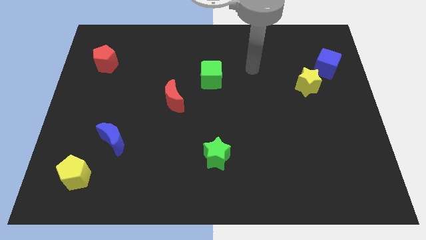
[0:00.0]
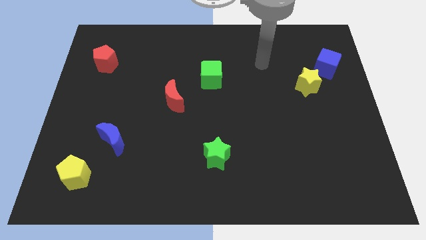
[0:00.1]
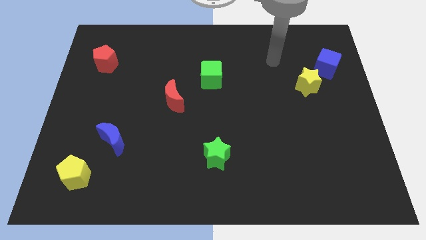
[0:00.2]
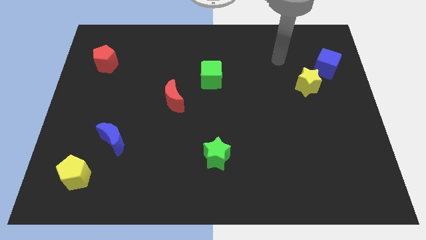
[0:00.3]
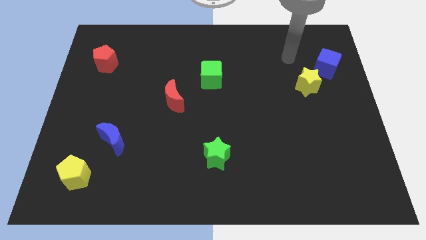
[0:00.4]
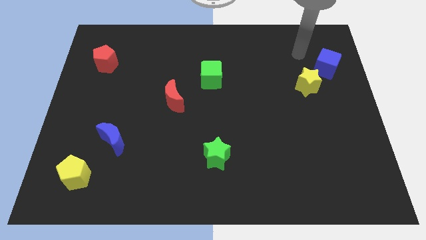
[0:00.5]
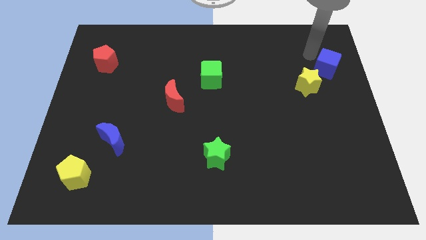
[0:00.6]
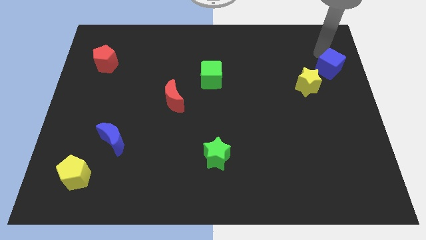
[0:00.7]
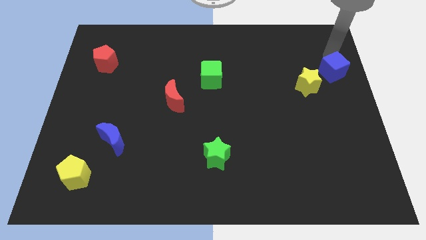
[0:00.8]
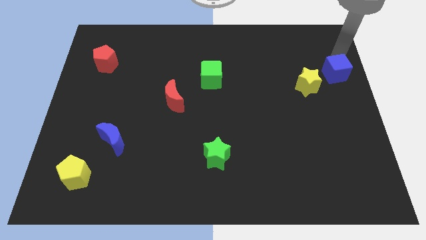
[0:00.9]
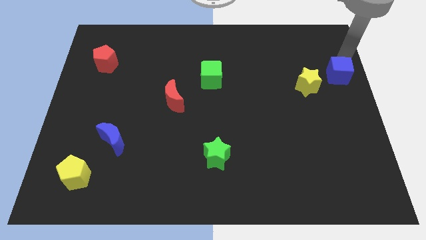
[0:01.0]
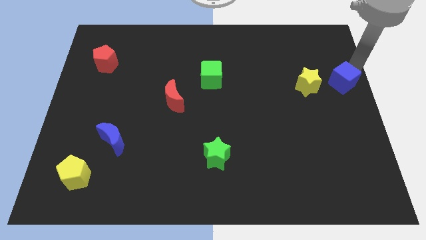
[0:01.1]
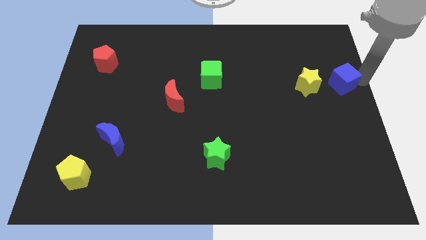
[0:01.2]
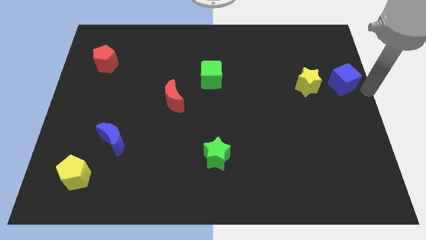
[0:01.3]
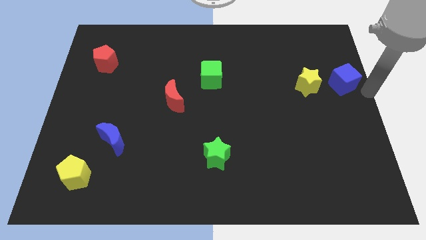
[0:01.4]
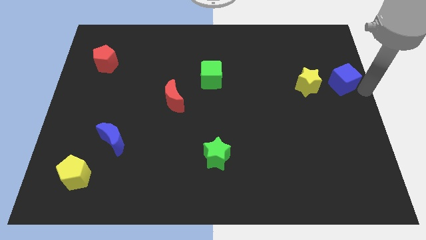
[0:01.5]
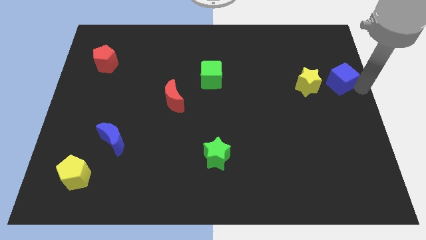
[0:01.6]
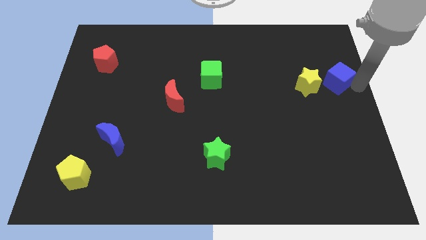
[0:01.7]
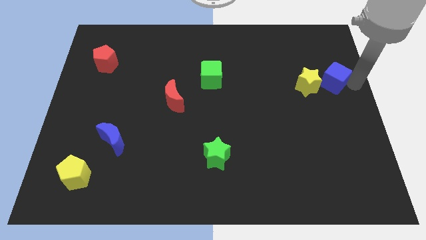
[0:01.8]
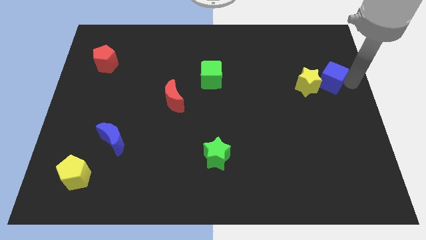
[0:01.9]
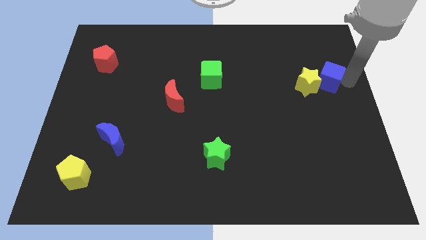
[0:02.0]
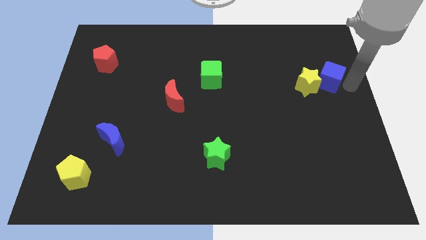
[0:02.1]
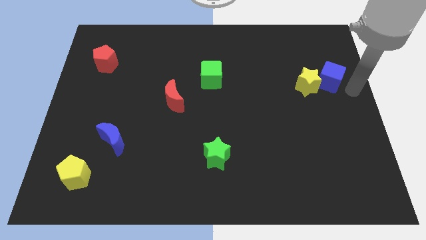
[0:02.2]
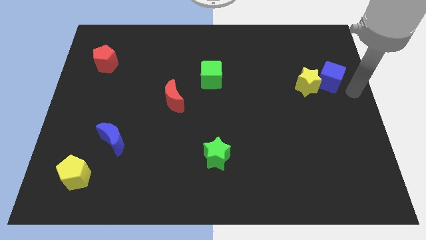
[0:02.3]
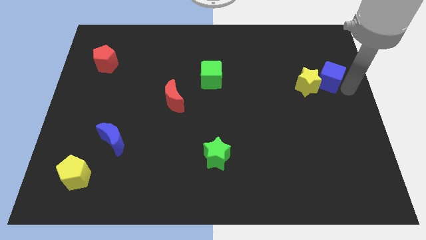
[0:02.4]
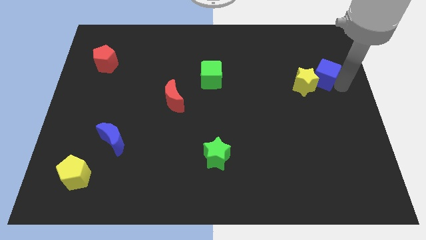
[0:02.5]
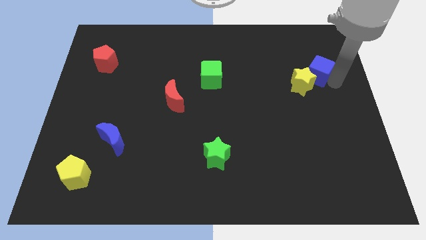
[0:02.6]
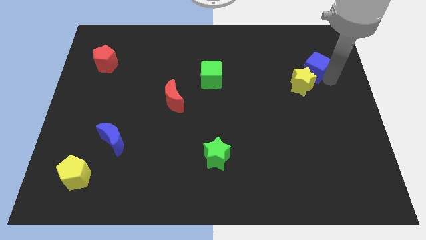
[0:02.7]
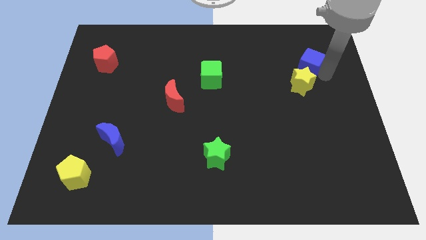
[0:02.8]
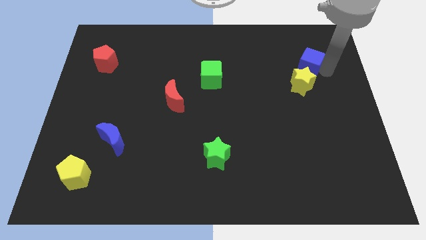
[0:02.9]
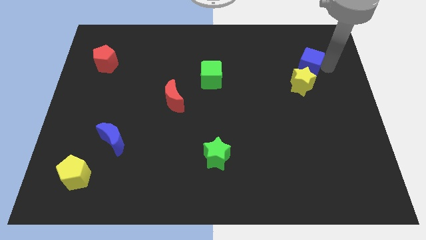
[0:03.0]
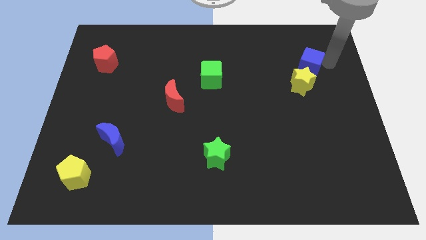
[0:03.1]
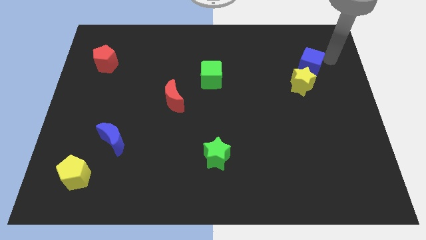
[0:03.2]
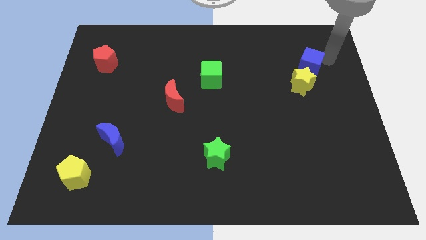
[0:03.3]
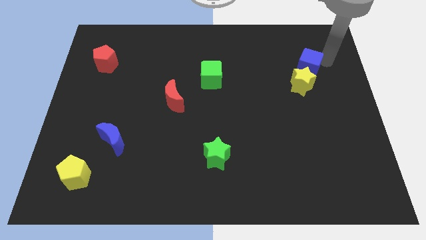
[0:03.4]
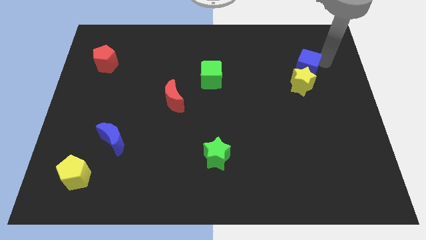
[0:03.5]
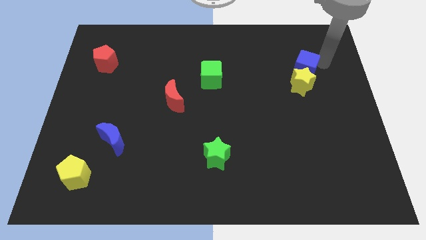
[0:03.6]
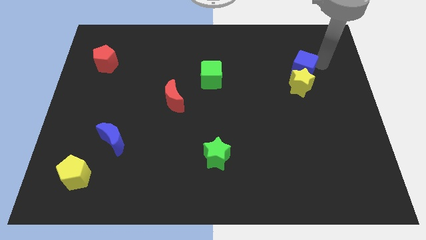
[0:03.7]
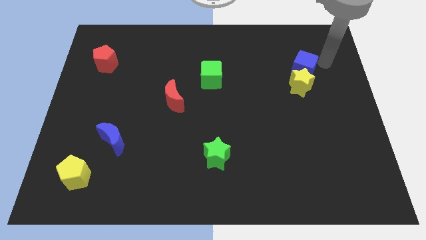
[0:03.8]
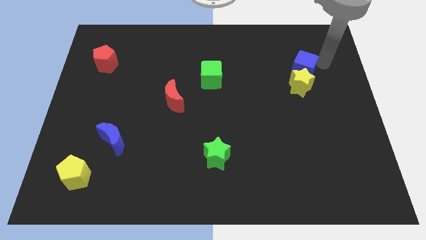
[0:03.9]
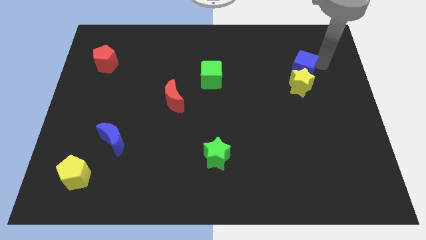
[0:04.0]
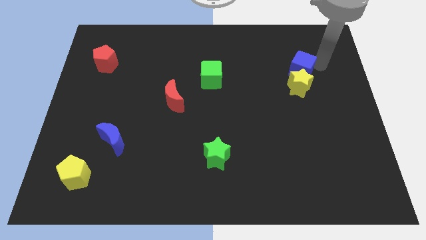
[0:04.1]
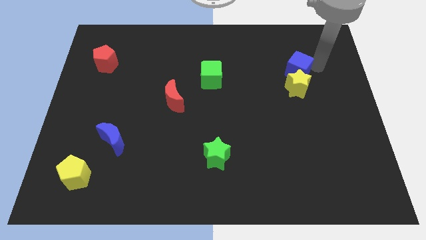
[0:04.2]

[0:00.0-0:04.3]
slightly move the blue cube left

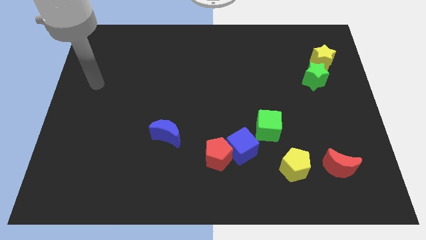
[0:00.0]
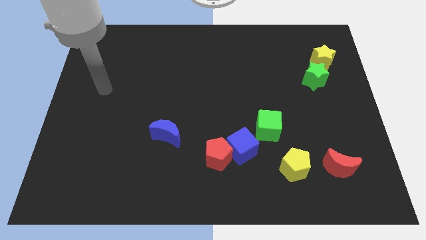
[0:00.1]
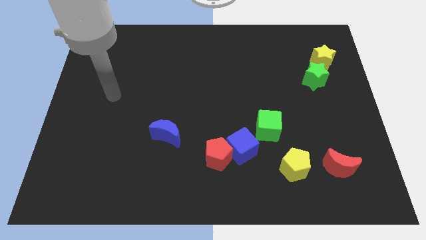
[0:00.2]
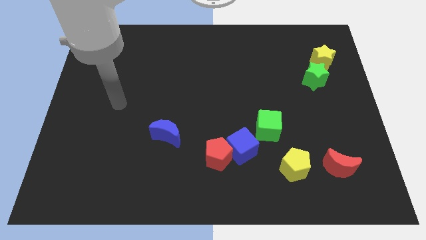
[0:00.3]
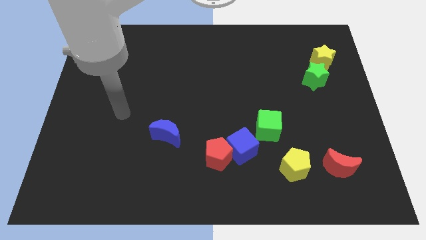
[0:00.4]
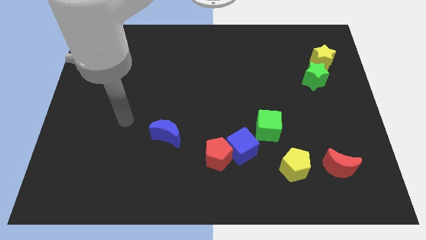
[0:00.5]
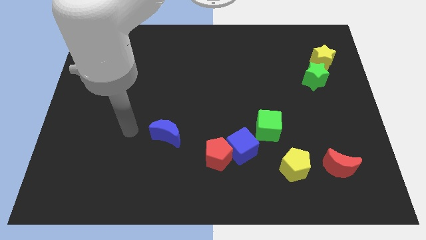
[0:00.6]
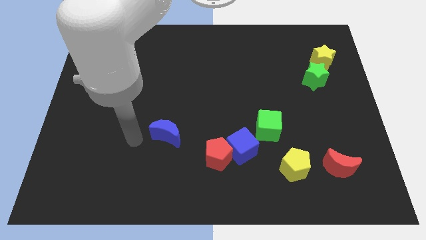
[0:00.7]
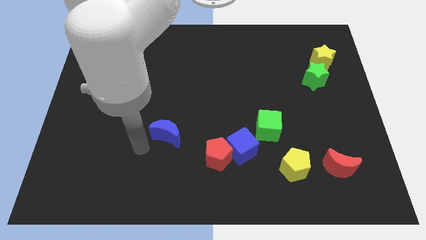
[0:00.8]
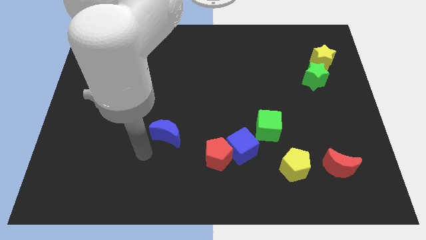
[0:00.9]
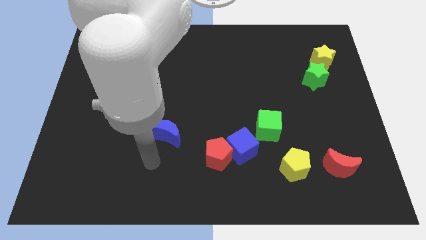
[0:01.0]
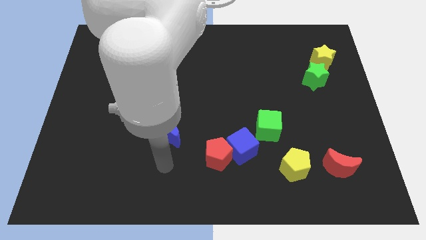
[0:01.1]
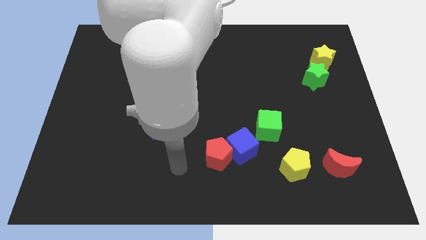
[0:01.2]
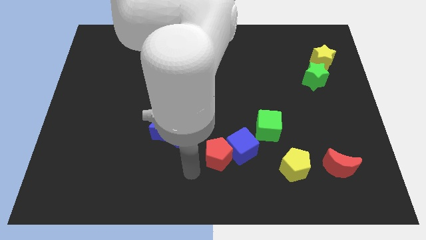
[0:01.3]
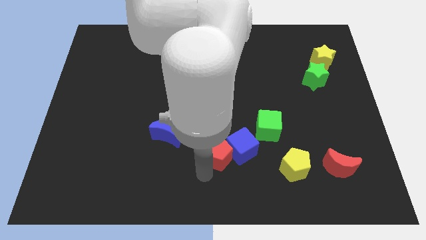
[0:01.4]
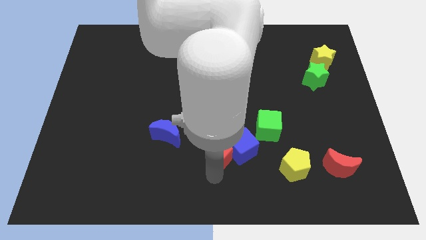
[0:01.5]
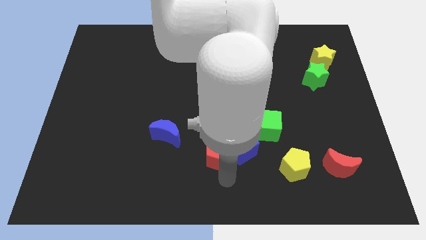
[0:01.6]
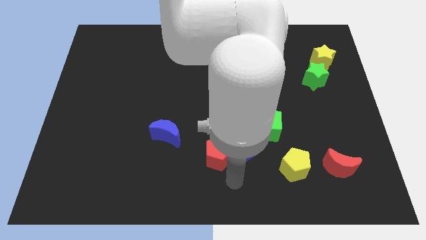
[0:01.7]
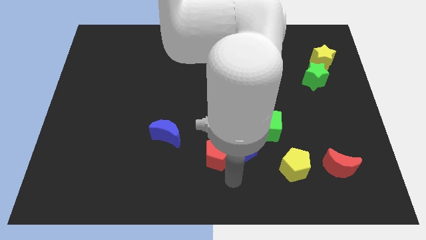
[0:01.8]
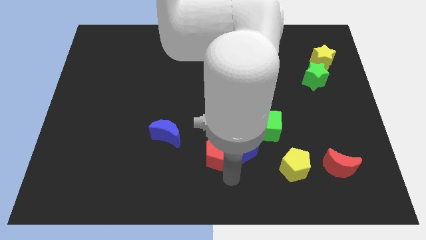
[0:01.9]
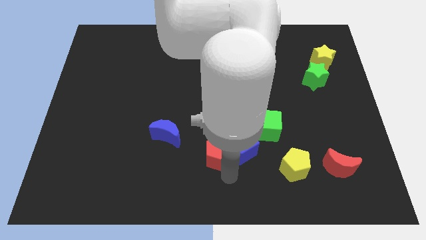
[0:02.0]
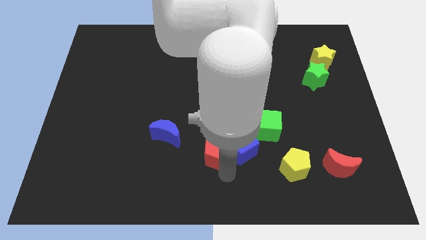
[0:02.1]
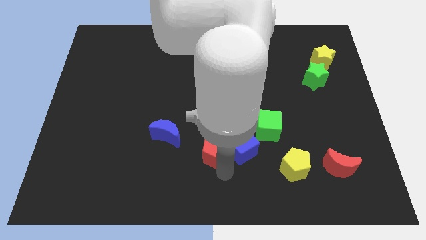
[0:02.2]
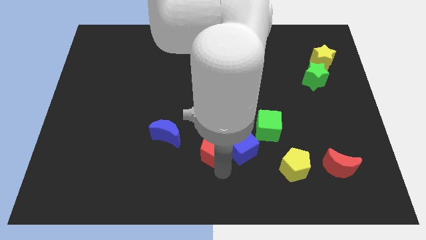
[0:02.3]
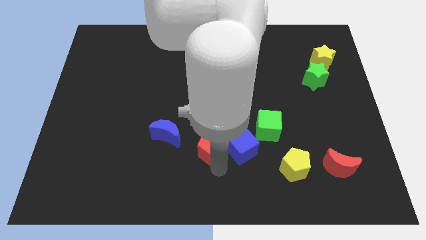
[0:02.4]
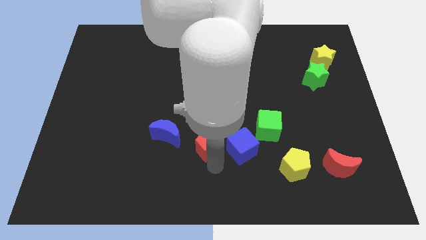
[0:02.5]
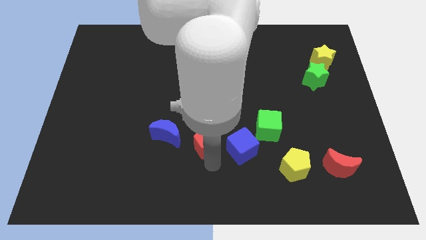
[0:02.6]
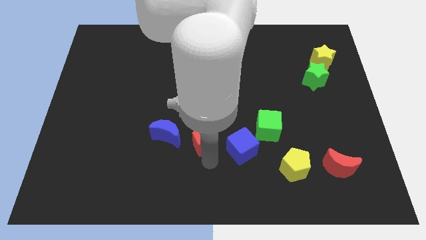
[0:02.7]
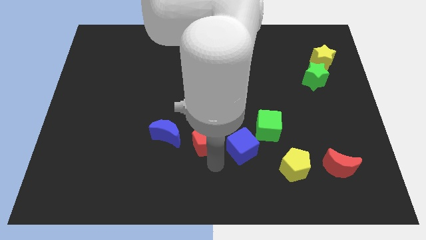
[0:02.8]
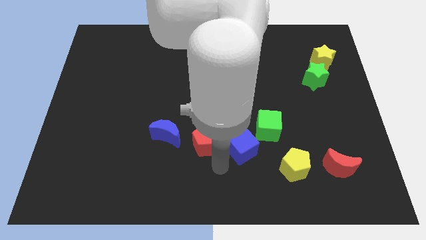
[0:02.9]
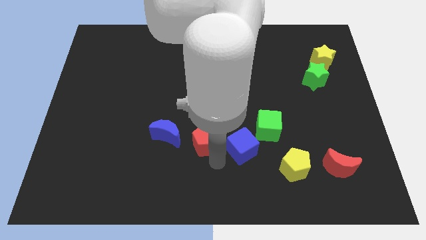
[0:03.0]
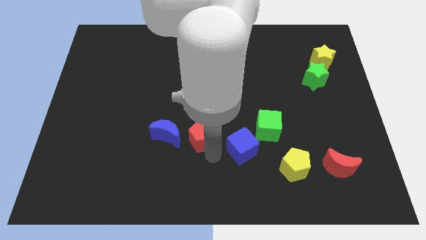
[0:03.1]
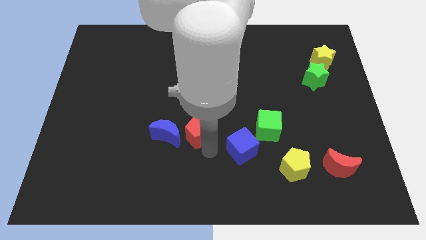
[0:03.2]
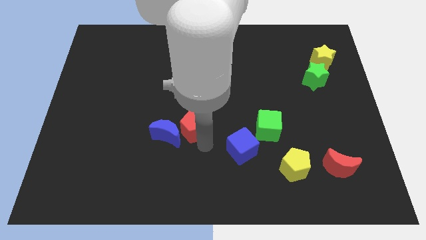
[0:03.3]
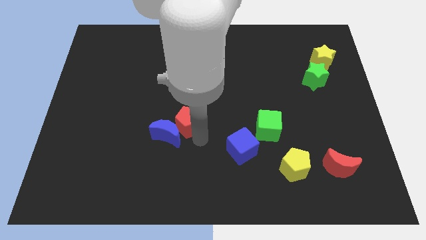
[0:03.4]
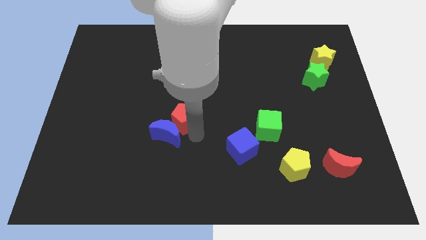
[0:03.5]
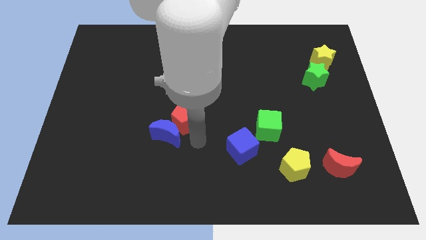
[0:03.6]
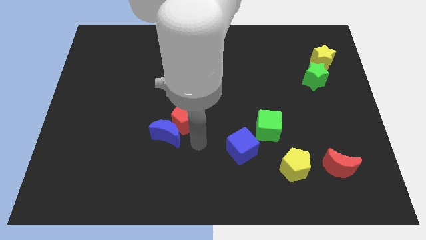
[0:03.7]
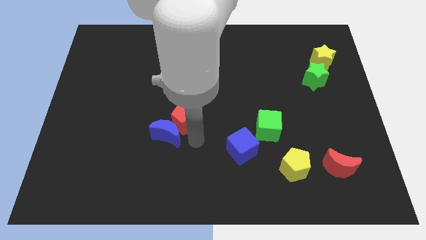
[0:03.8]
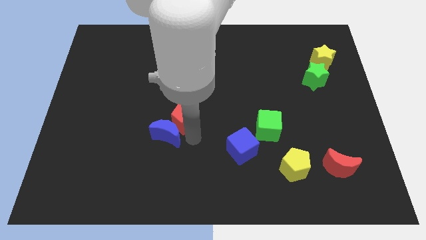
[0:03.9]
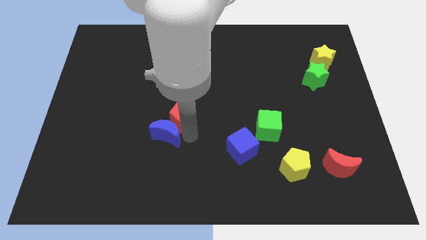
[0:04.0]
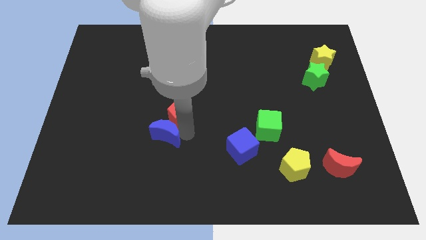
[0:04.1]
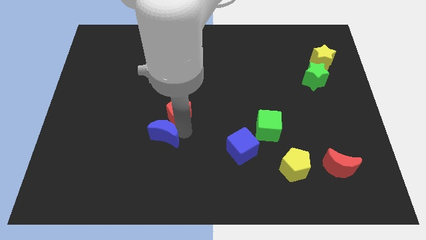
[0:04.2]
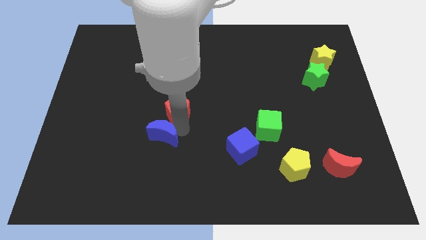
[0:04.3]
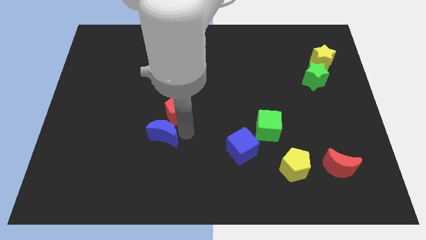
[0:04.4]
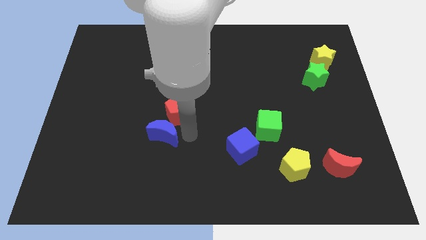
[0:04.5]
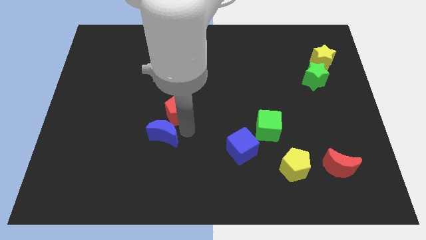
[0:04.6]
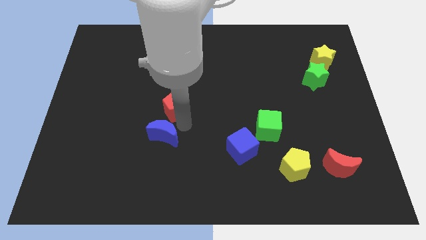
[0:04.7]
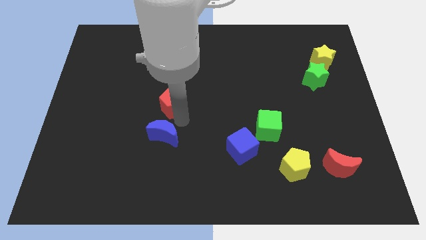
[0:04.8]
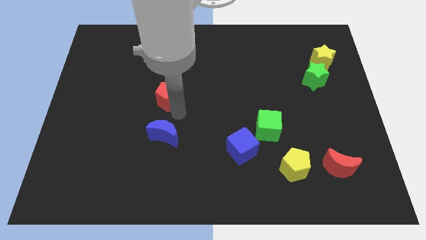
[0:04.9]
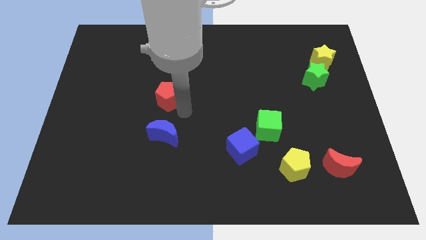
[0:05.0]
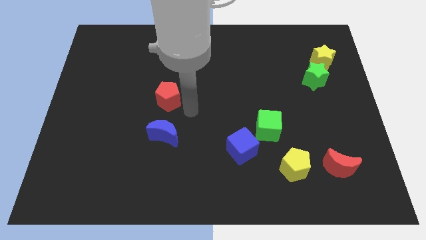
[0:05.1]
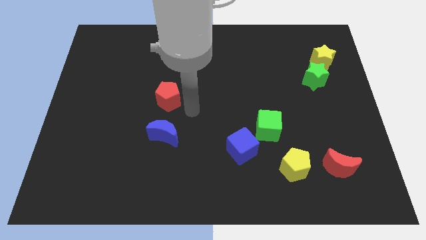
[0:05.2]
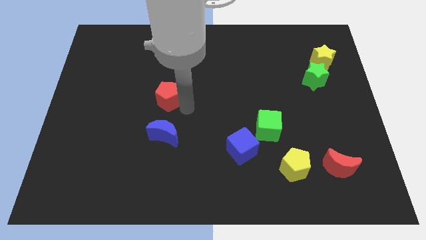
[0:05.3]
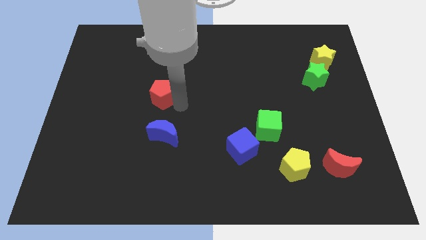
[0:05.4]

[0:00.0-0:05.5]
slide the red pentagon upwards and to the left diagonally
